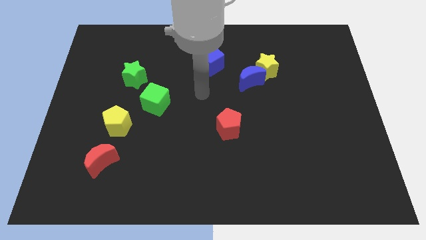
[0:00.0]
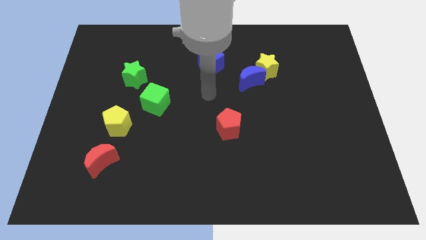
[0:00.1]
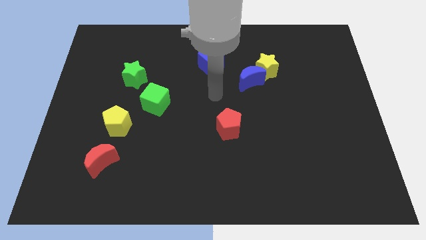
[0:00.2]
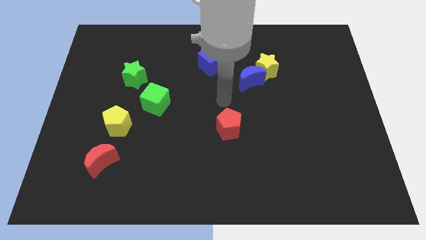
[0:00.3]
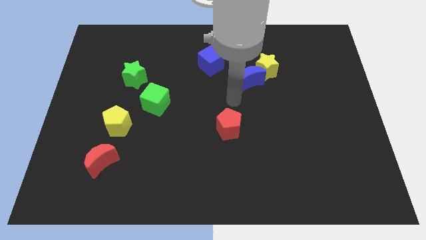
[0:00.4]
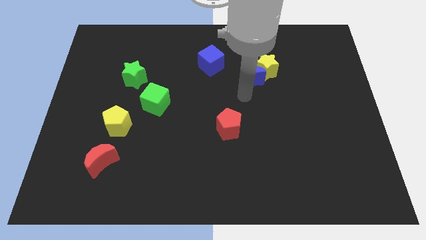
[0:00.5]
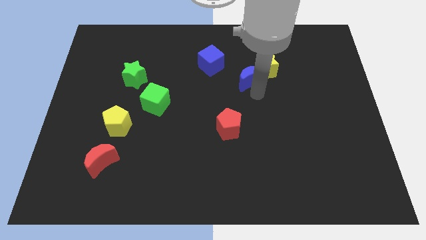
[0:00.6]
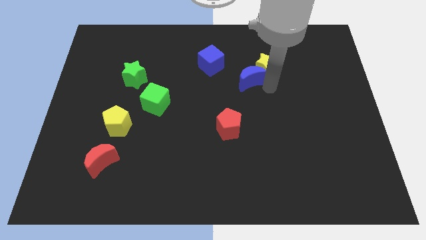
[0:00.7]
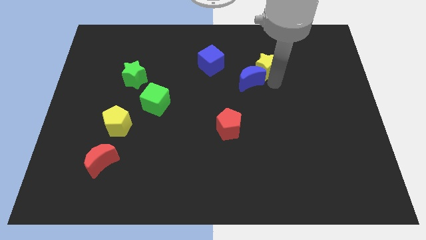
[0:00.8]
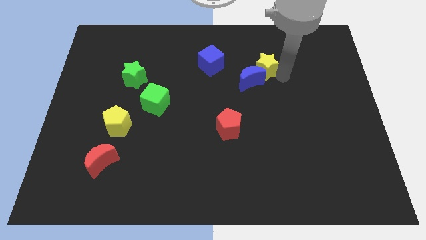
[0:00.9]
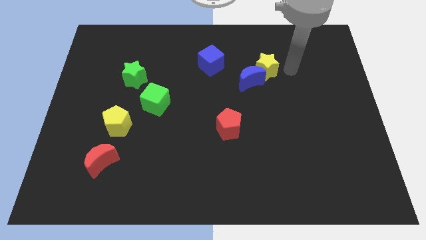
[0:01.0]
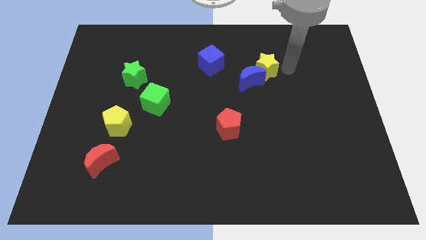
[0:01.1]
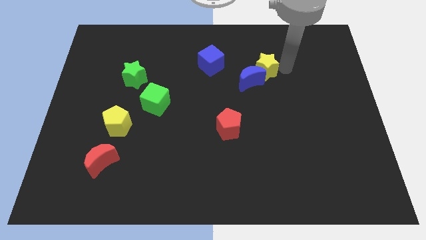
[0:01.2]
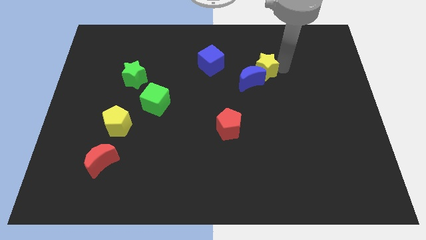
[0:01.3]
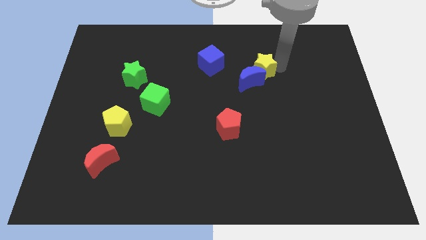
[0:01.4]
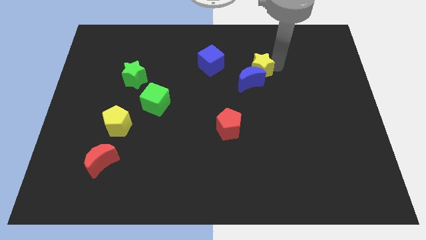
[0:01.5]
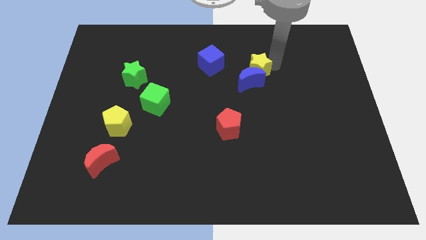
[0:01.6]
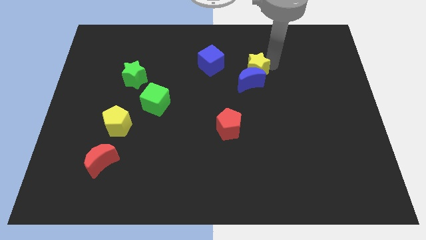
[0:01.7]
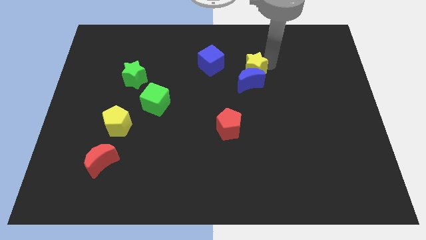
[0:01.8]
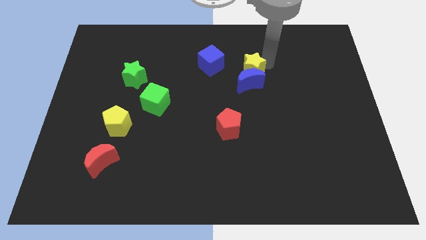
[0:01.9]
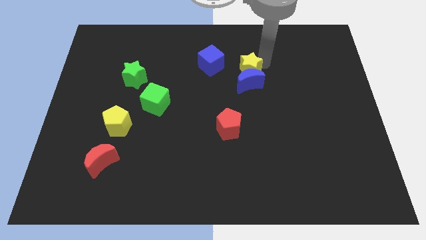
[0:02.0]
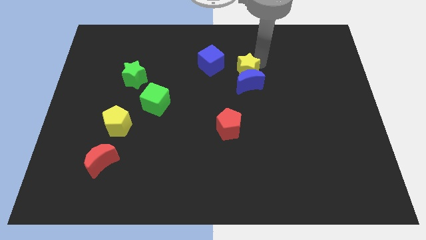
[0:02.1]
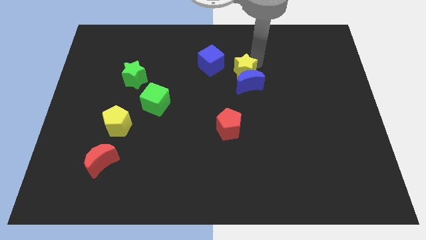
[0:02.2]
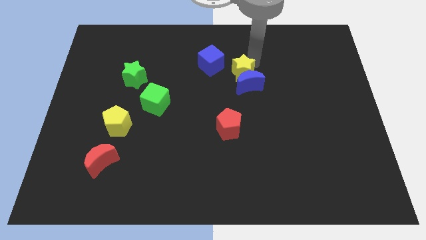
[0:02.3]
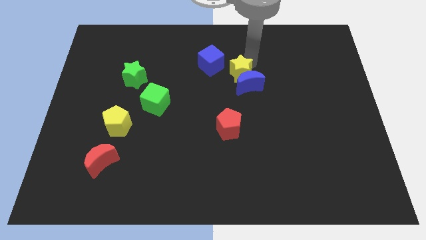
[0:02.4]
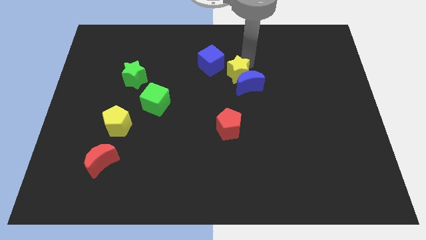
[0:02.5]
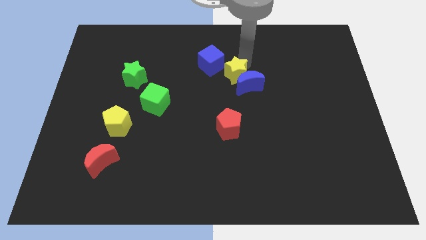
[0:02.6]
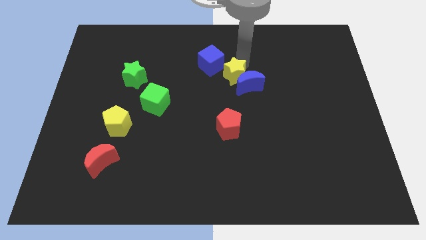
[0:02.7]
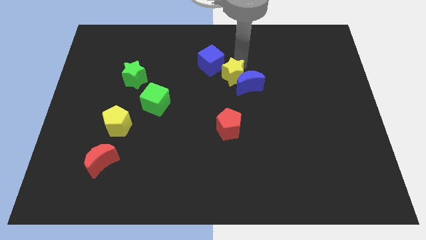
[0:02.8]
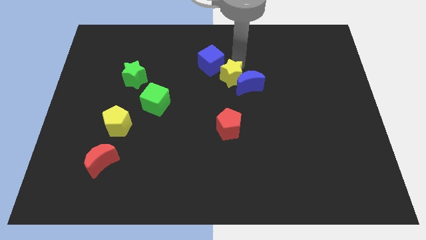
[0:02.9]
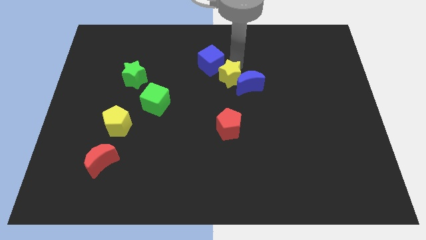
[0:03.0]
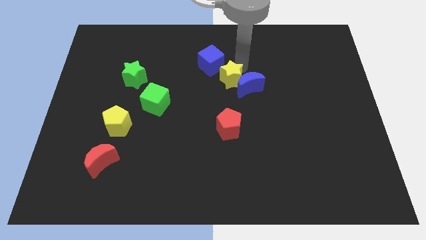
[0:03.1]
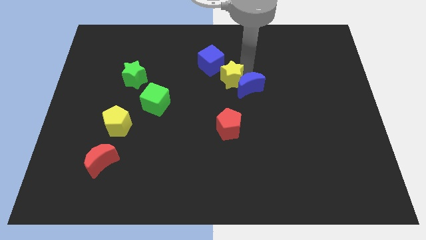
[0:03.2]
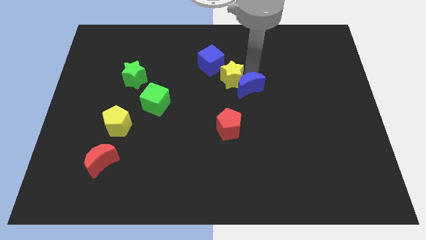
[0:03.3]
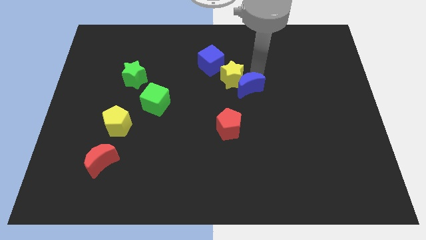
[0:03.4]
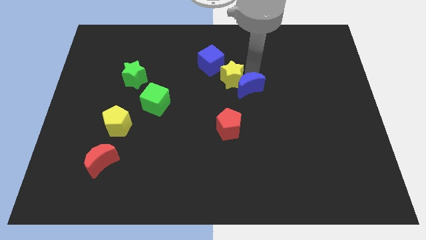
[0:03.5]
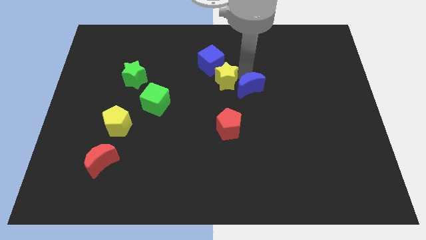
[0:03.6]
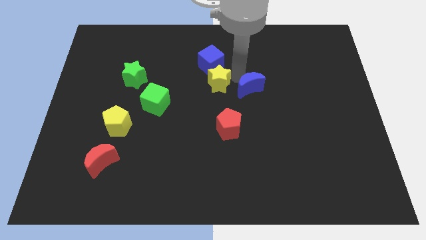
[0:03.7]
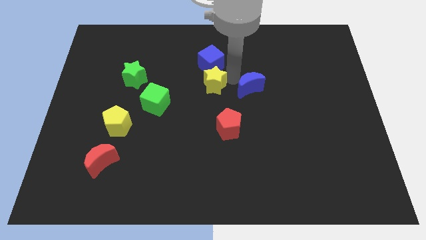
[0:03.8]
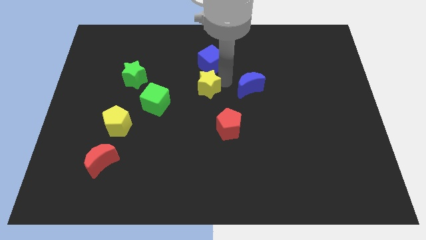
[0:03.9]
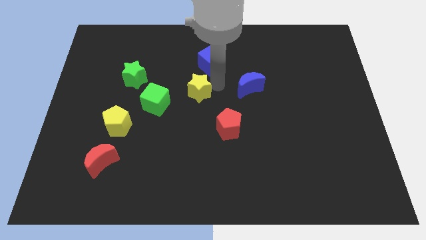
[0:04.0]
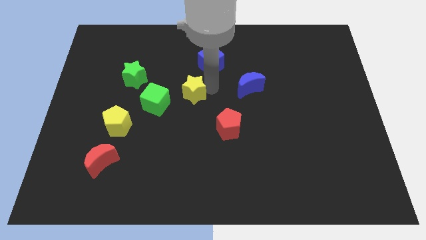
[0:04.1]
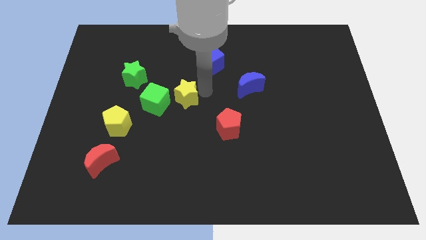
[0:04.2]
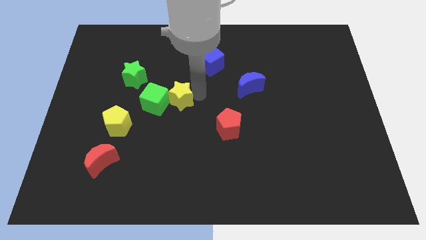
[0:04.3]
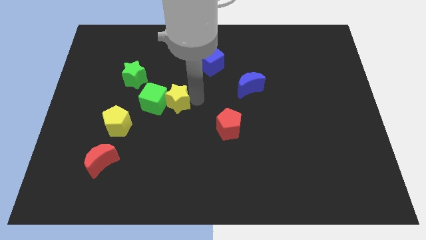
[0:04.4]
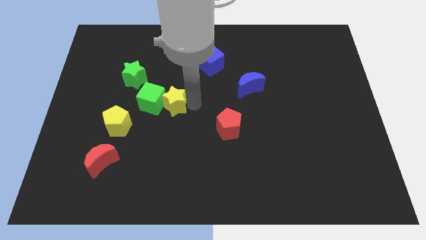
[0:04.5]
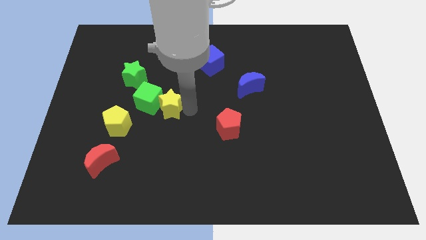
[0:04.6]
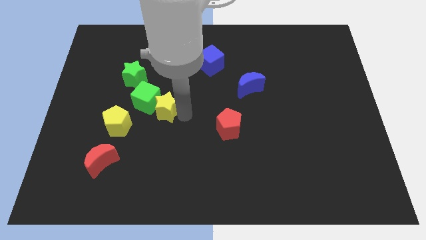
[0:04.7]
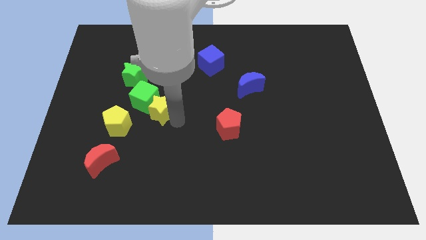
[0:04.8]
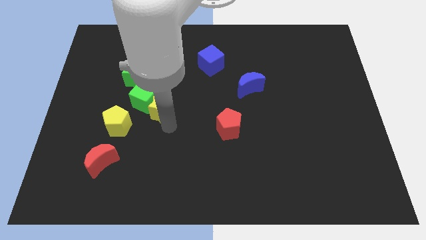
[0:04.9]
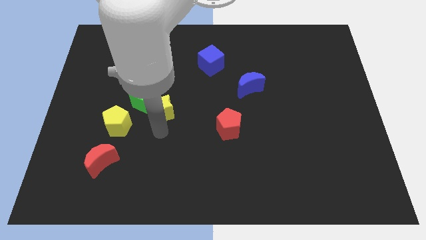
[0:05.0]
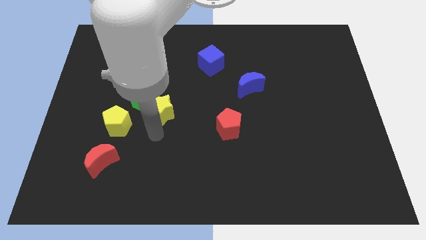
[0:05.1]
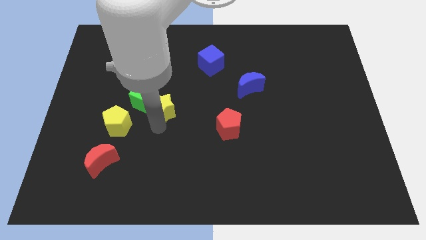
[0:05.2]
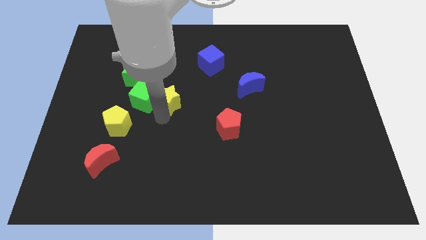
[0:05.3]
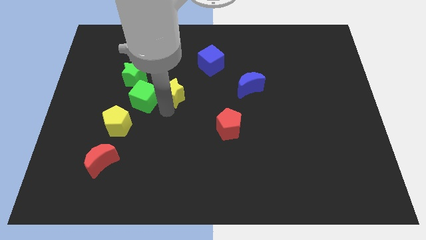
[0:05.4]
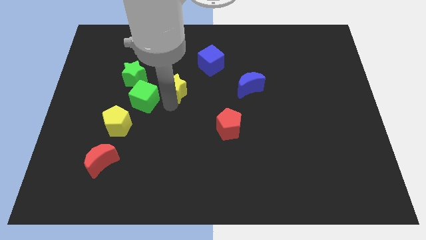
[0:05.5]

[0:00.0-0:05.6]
move the yellow star right of the green star

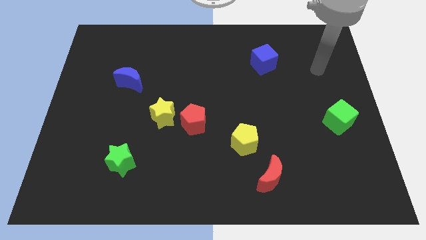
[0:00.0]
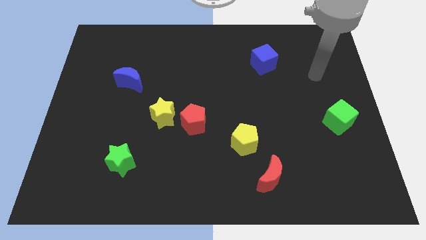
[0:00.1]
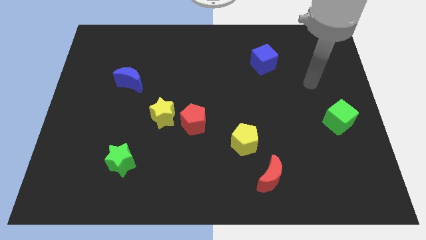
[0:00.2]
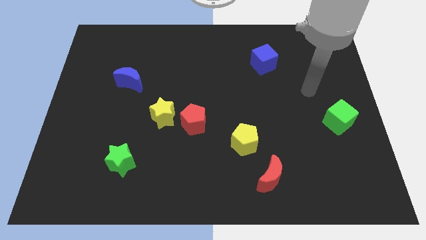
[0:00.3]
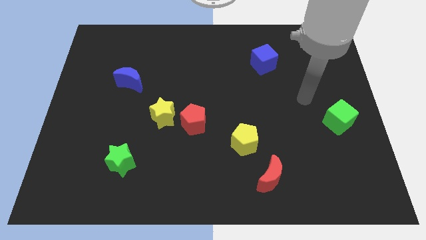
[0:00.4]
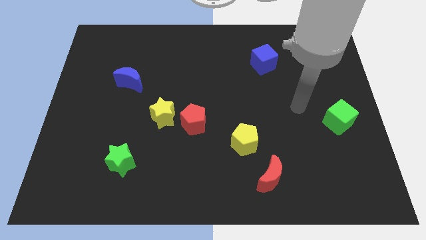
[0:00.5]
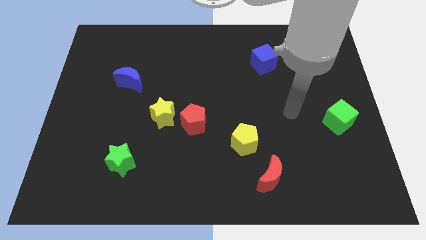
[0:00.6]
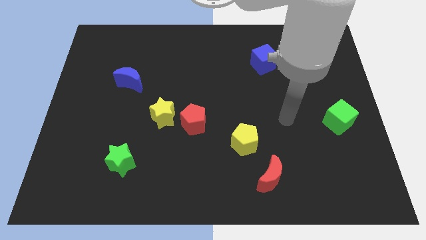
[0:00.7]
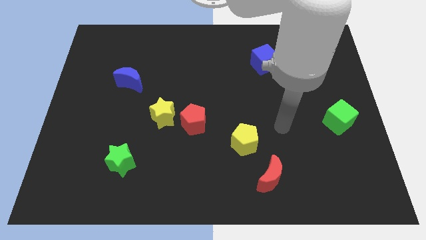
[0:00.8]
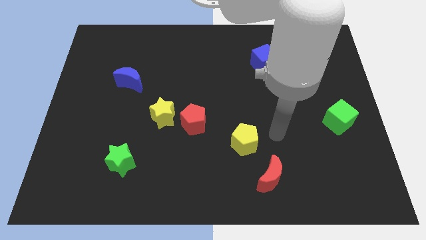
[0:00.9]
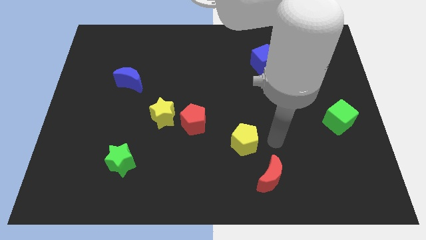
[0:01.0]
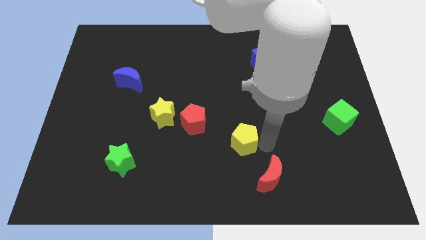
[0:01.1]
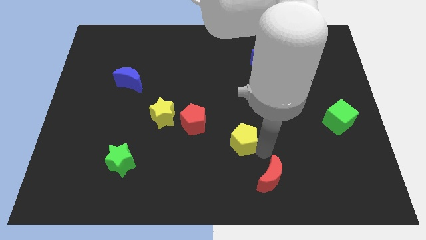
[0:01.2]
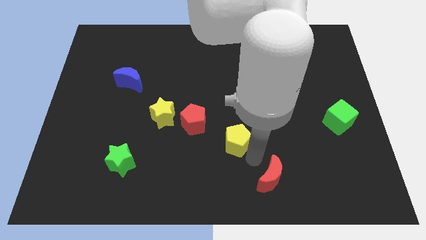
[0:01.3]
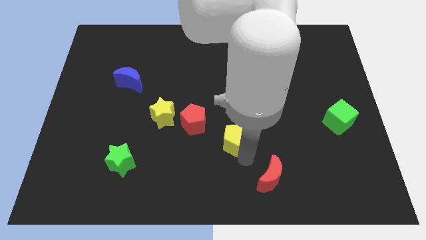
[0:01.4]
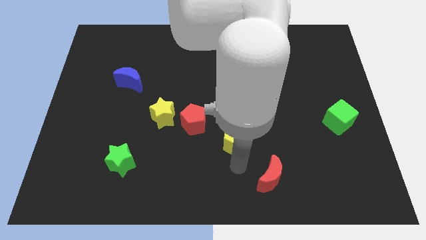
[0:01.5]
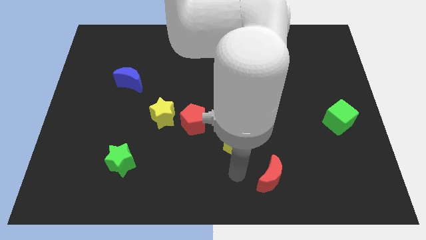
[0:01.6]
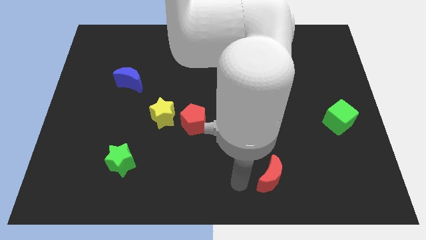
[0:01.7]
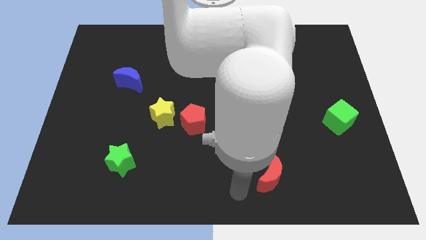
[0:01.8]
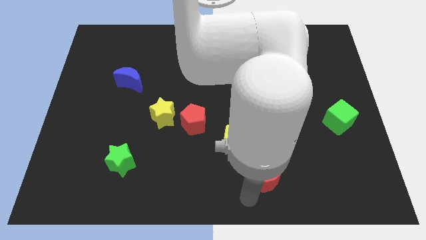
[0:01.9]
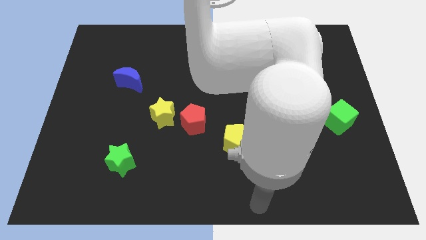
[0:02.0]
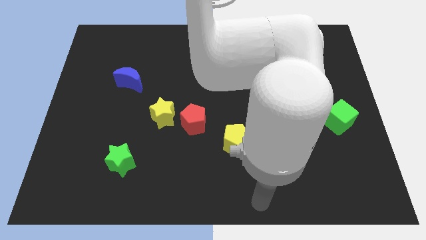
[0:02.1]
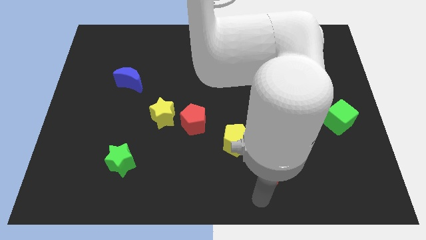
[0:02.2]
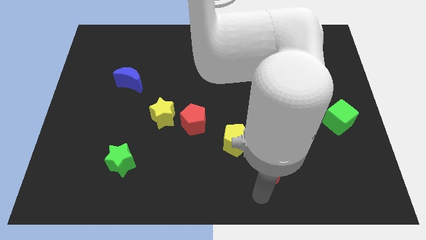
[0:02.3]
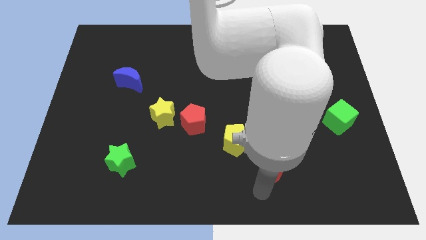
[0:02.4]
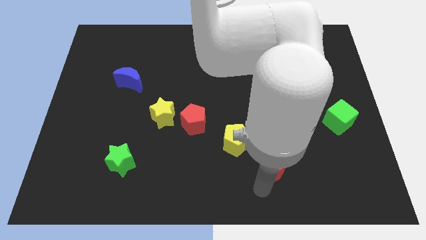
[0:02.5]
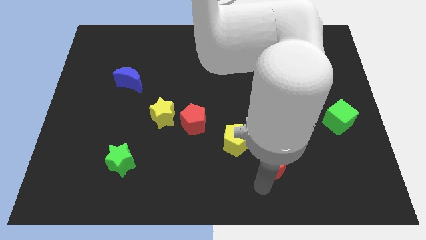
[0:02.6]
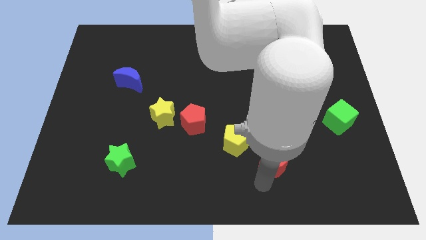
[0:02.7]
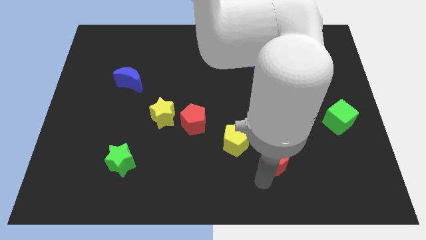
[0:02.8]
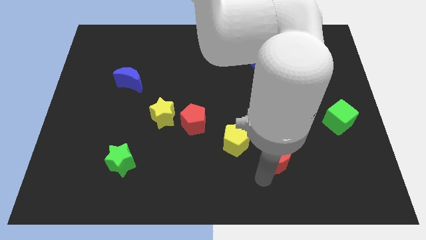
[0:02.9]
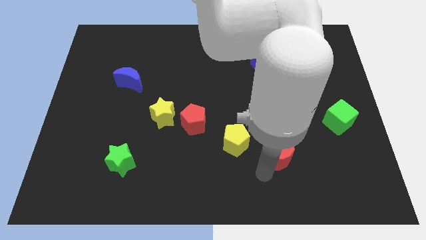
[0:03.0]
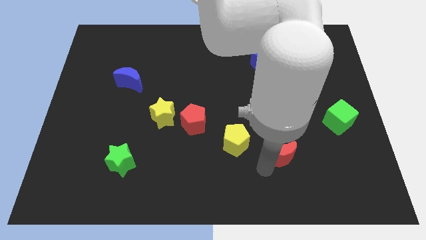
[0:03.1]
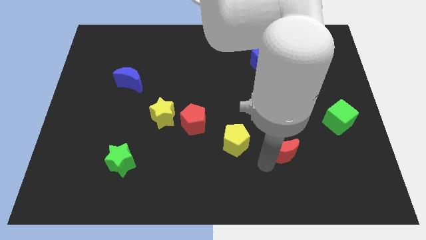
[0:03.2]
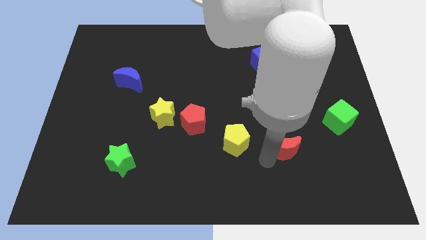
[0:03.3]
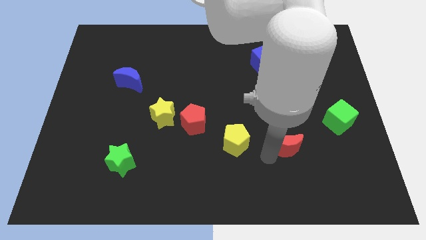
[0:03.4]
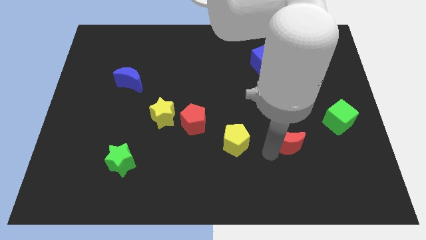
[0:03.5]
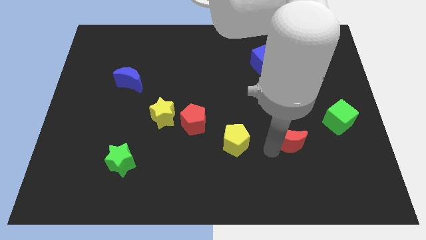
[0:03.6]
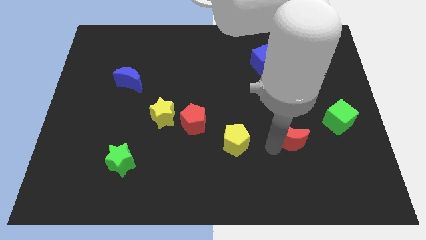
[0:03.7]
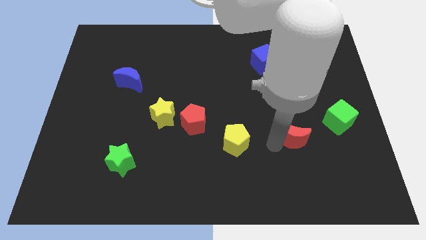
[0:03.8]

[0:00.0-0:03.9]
move the red moon left of the green cube
